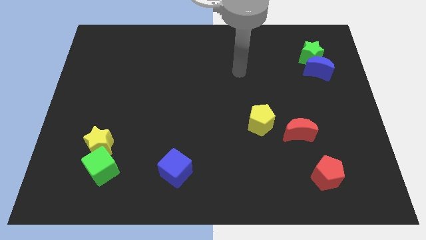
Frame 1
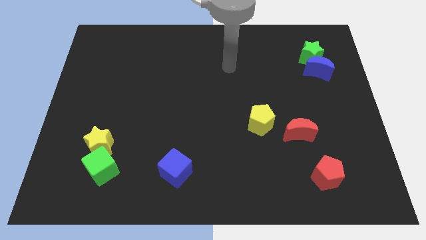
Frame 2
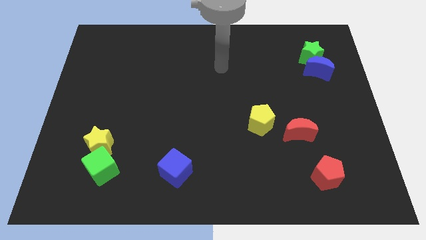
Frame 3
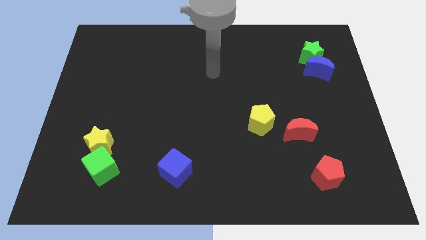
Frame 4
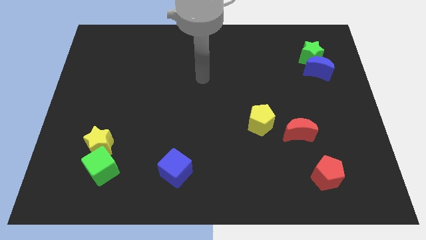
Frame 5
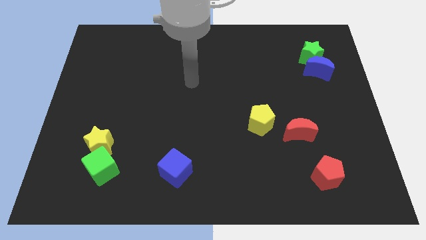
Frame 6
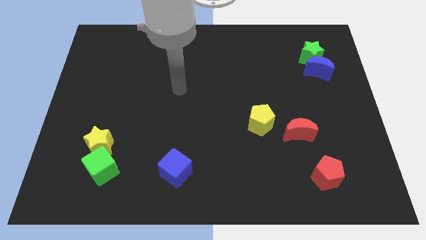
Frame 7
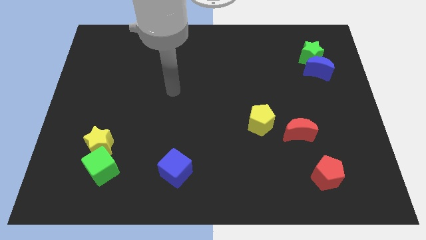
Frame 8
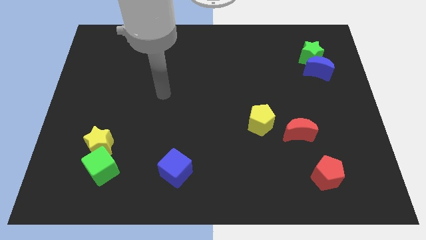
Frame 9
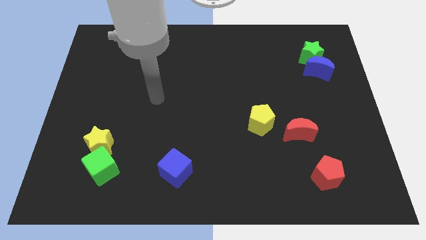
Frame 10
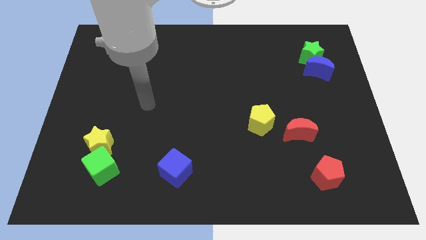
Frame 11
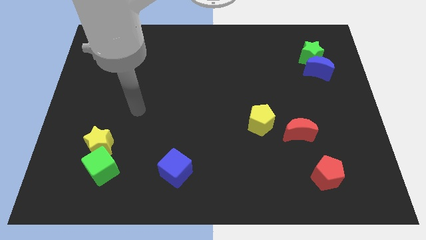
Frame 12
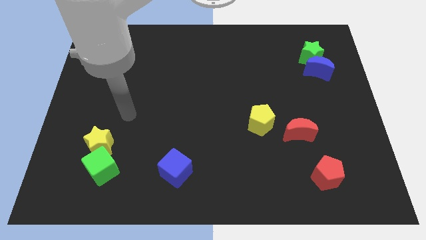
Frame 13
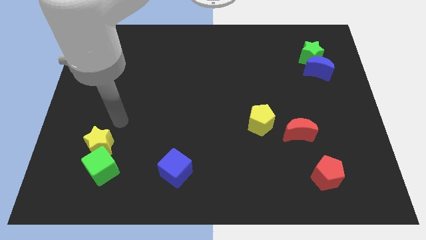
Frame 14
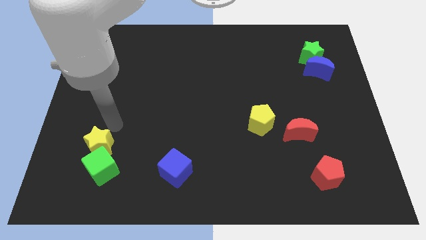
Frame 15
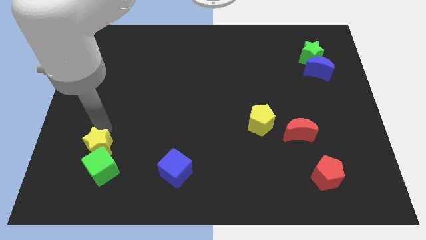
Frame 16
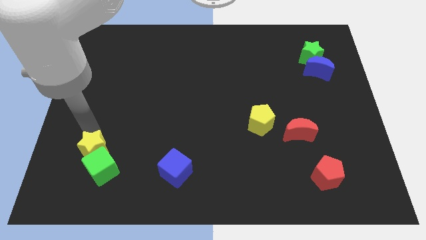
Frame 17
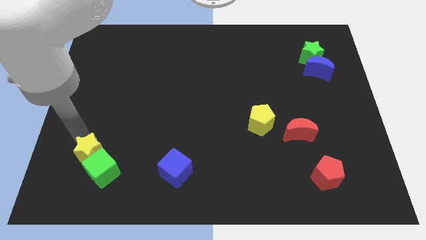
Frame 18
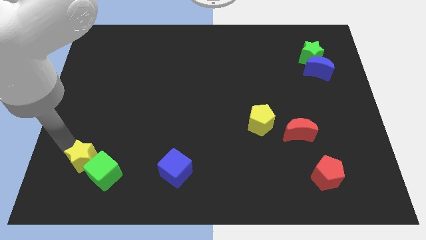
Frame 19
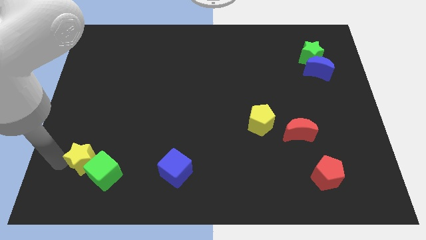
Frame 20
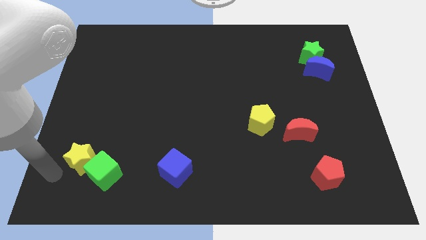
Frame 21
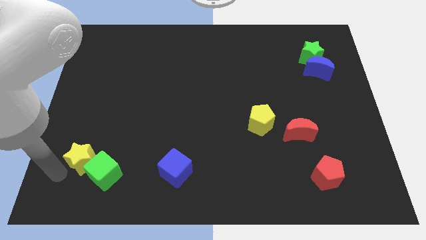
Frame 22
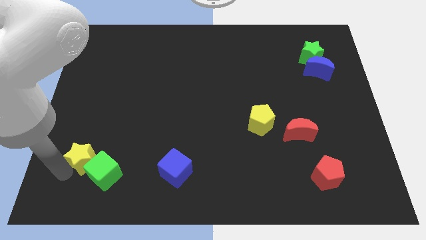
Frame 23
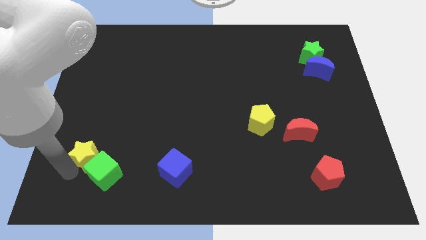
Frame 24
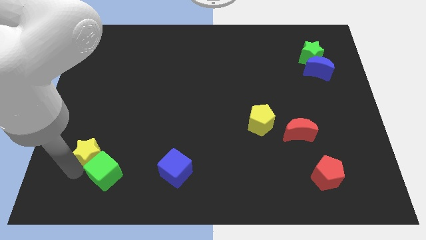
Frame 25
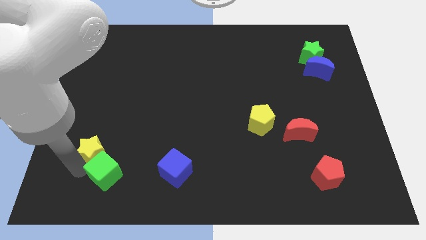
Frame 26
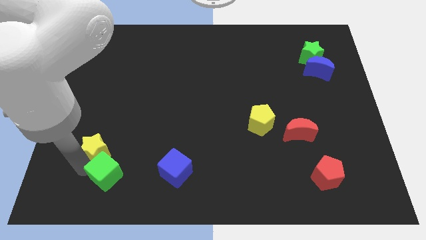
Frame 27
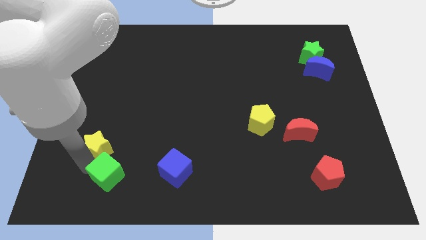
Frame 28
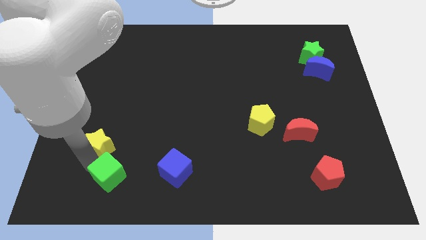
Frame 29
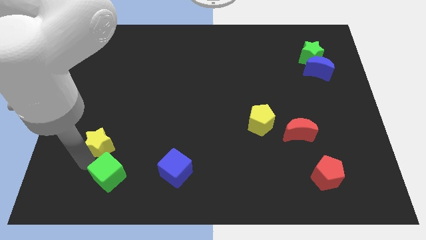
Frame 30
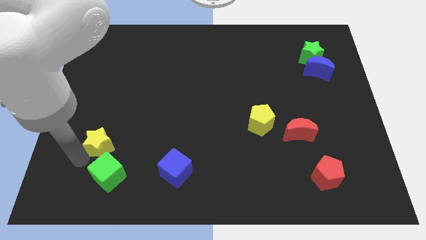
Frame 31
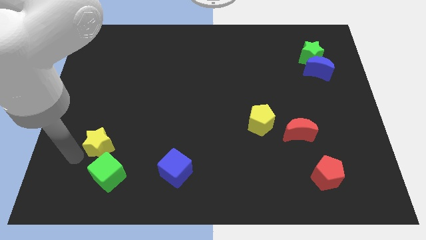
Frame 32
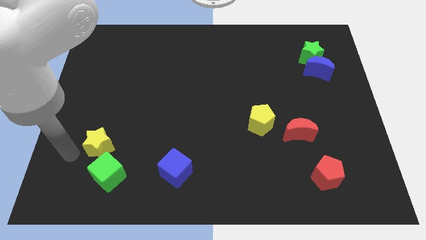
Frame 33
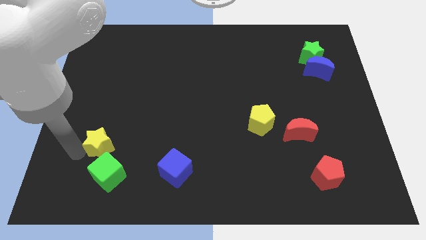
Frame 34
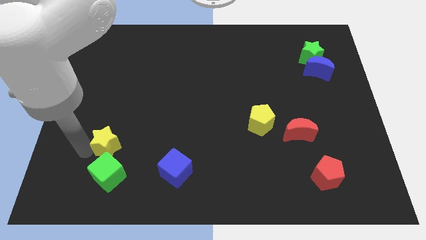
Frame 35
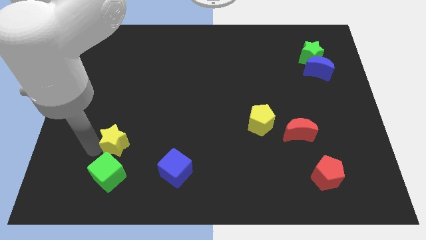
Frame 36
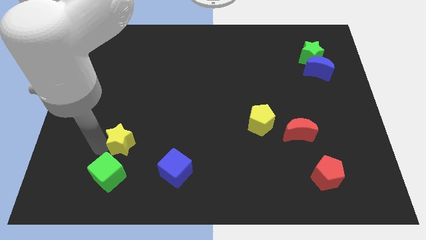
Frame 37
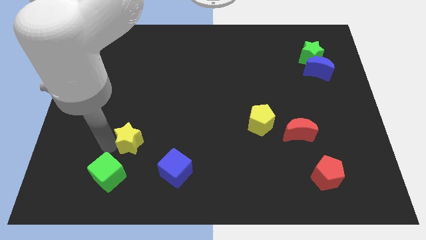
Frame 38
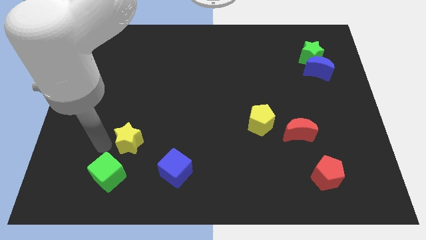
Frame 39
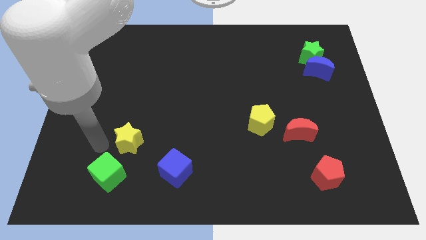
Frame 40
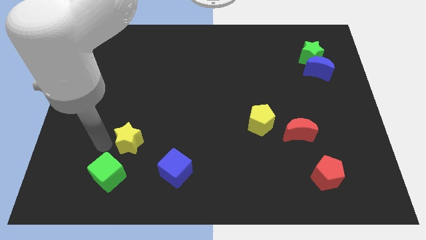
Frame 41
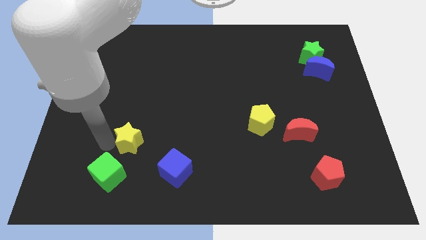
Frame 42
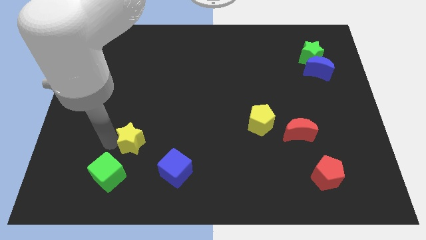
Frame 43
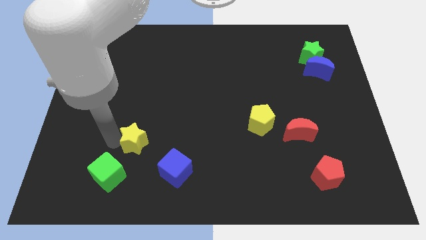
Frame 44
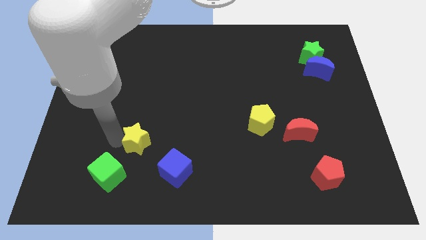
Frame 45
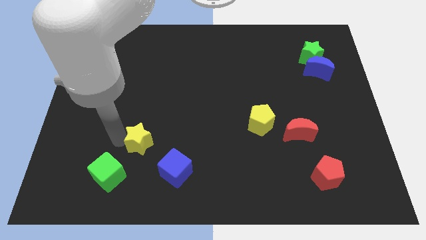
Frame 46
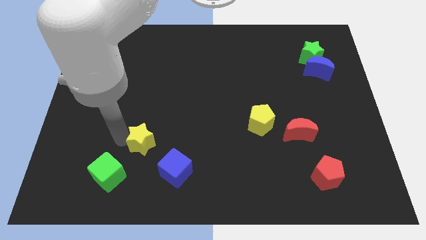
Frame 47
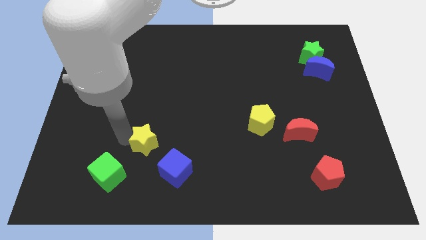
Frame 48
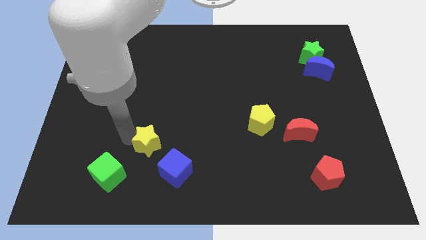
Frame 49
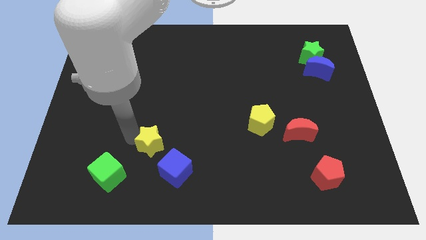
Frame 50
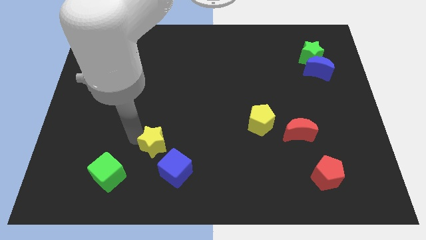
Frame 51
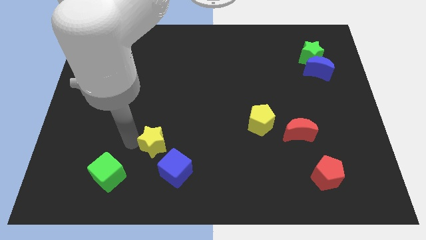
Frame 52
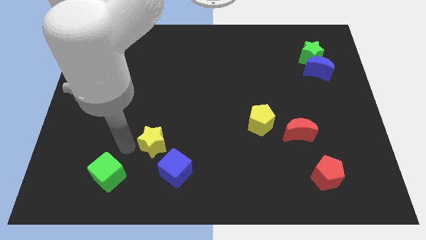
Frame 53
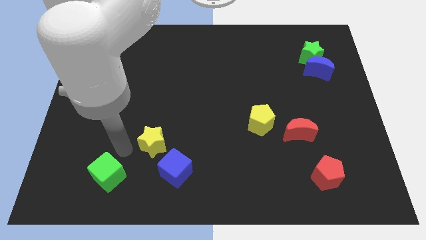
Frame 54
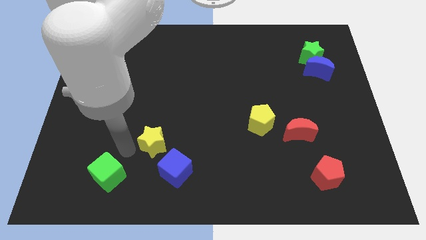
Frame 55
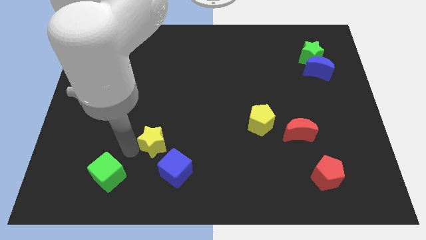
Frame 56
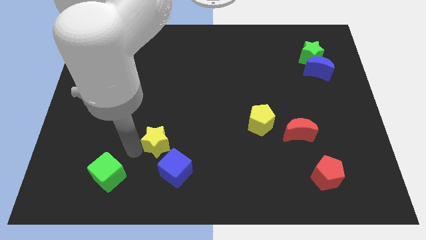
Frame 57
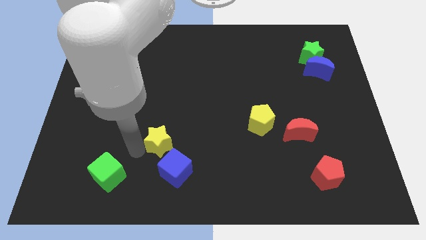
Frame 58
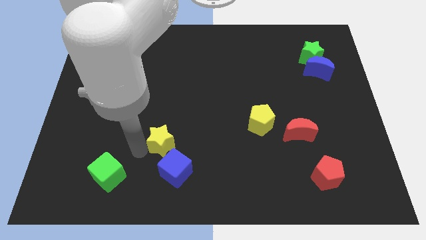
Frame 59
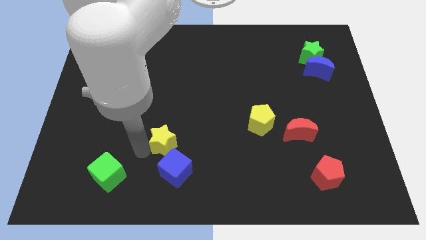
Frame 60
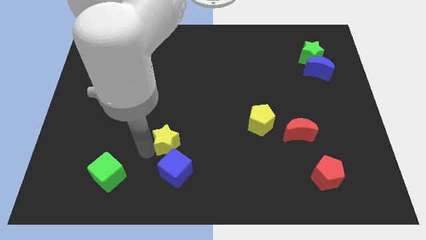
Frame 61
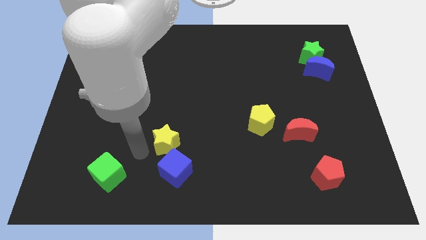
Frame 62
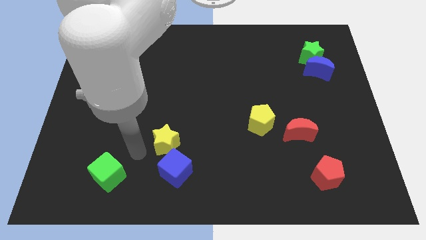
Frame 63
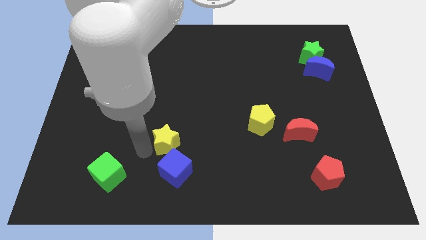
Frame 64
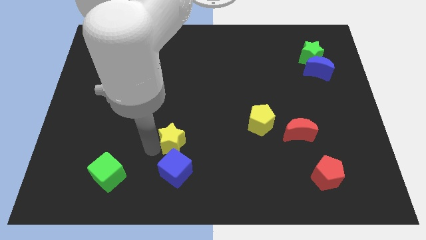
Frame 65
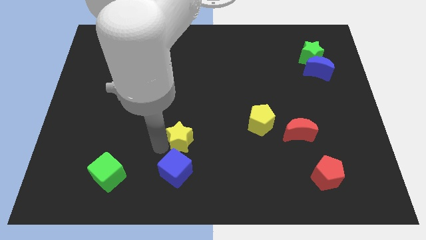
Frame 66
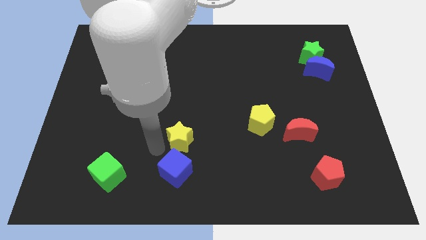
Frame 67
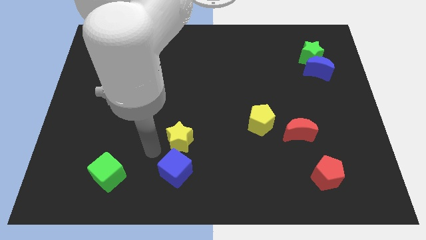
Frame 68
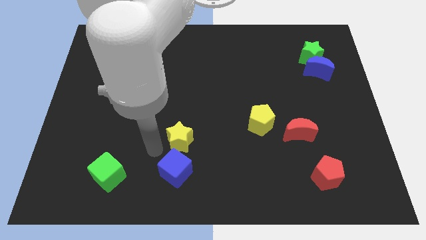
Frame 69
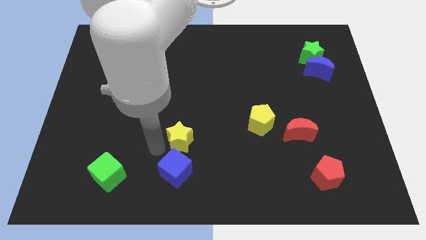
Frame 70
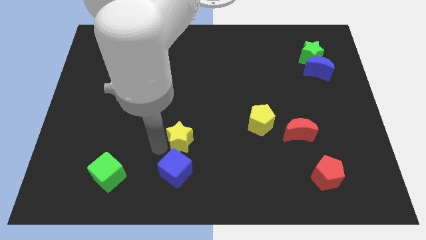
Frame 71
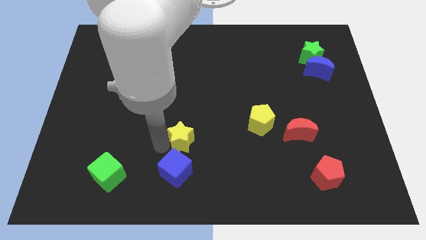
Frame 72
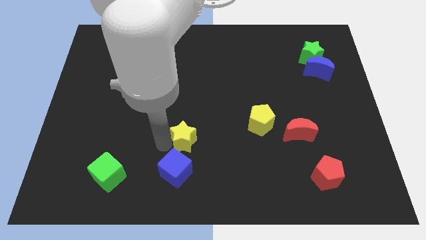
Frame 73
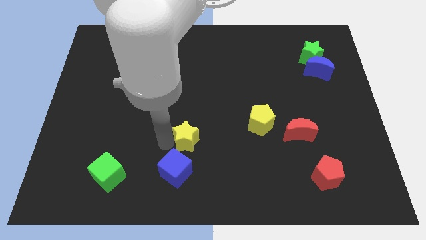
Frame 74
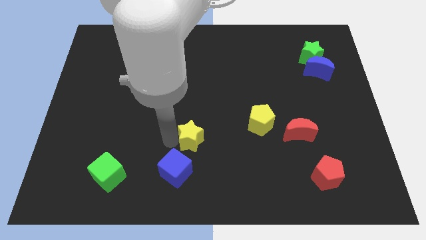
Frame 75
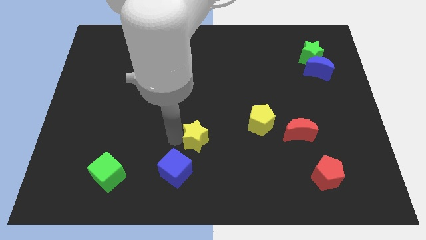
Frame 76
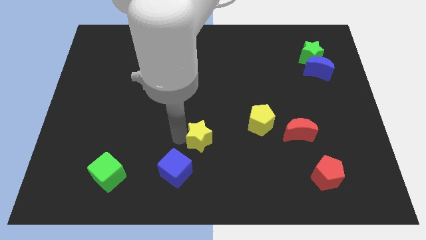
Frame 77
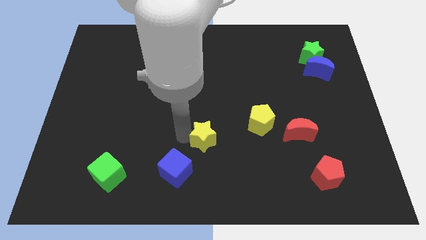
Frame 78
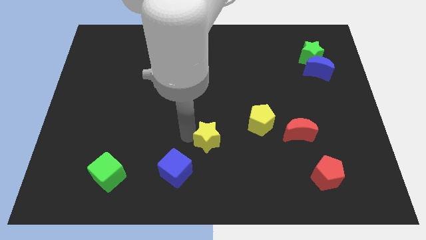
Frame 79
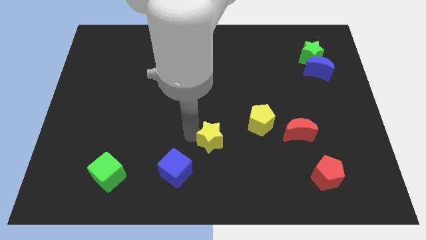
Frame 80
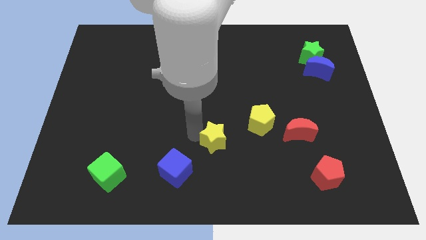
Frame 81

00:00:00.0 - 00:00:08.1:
move the yellow star to the bottom left of the yellow pentagon
